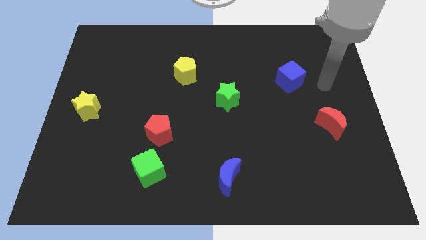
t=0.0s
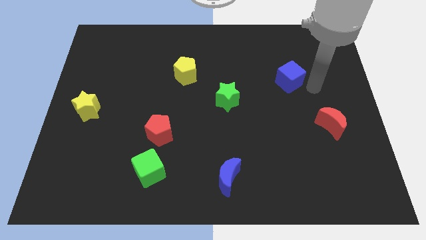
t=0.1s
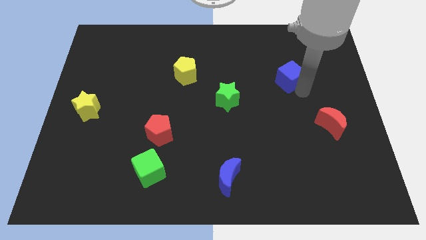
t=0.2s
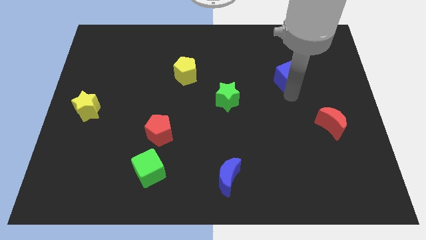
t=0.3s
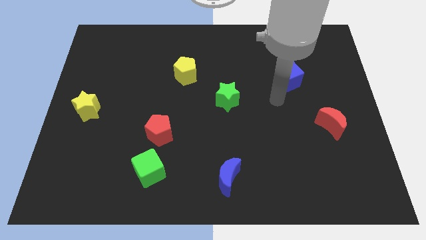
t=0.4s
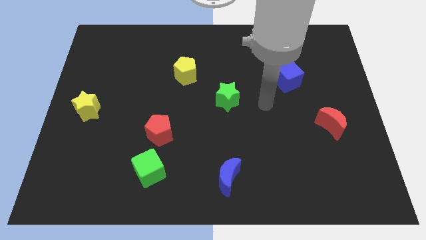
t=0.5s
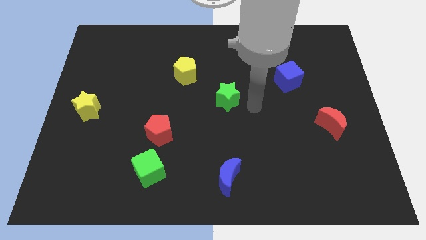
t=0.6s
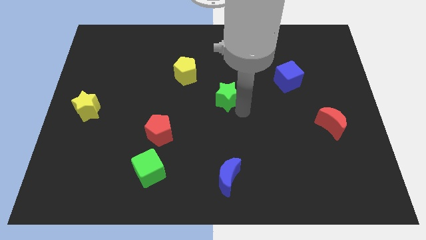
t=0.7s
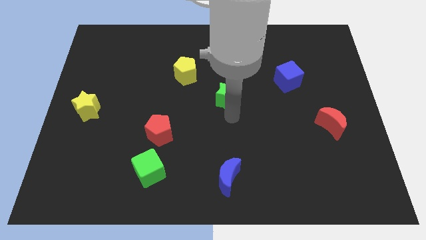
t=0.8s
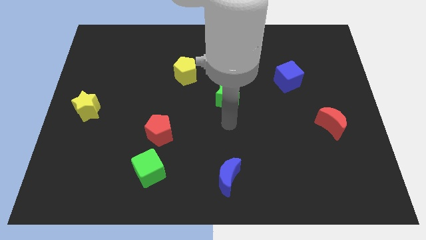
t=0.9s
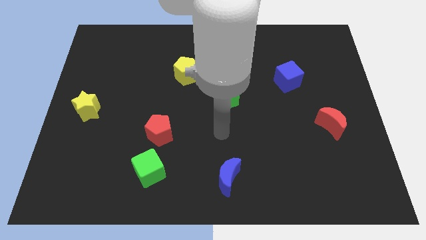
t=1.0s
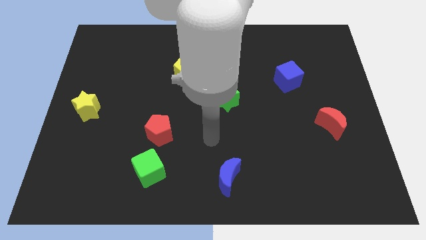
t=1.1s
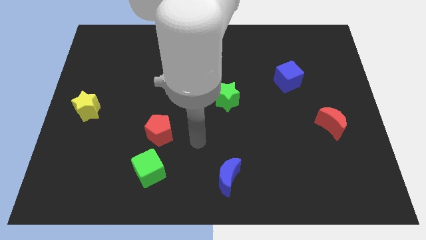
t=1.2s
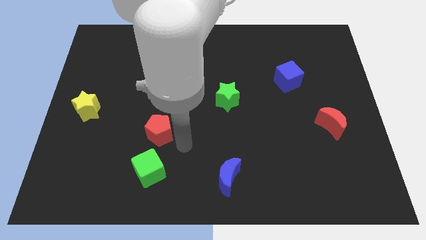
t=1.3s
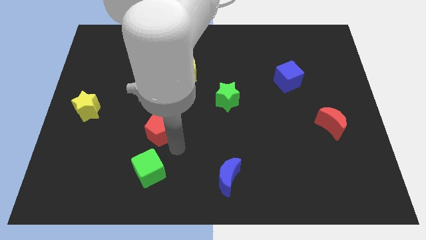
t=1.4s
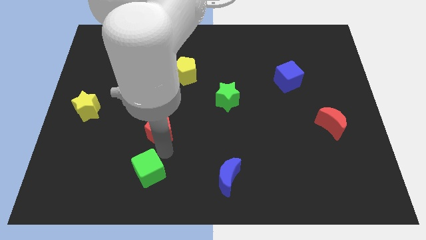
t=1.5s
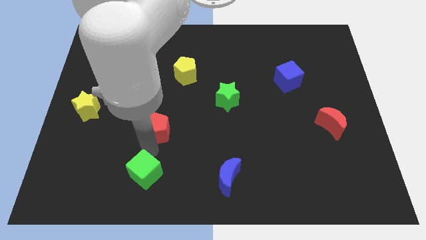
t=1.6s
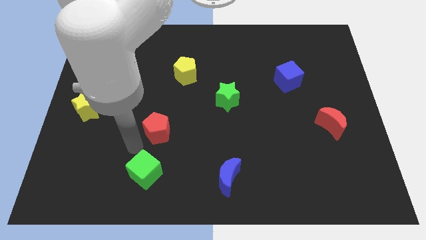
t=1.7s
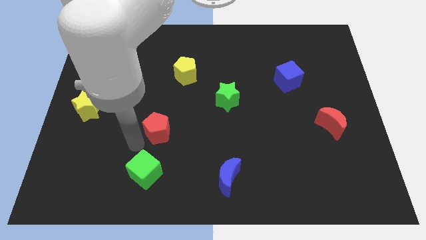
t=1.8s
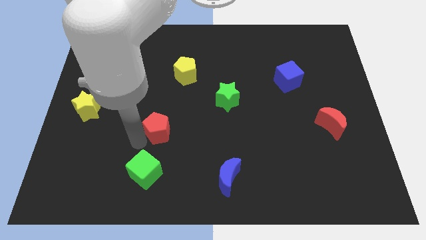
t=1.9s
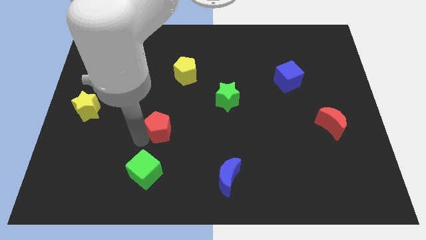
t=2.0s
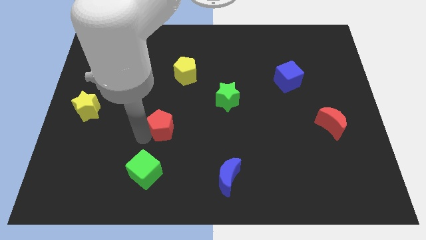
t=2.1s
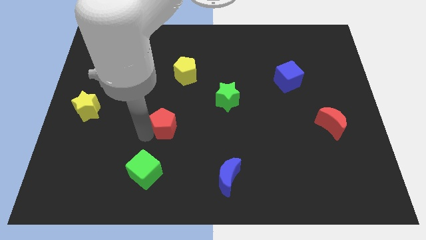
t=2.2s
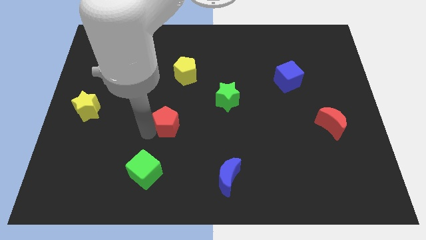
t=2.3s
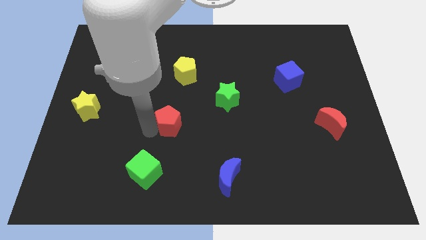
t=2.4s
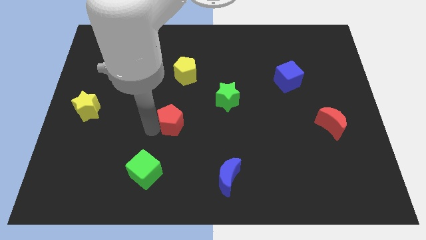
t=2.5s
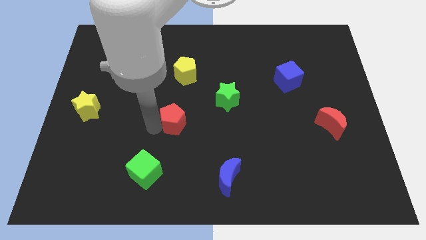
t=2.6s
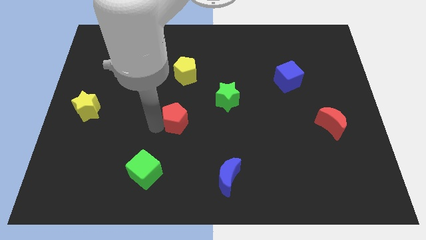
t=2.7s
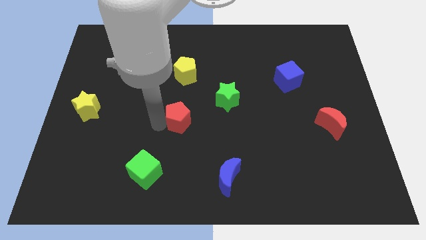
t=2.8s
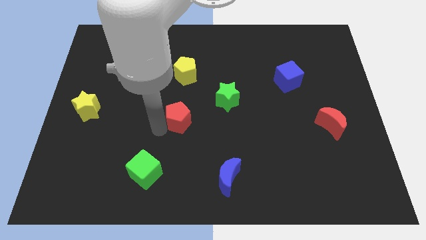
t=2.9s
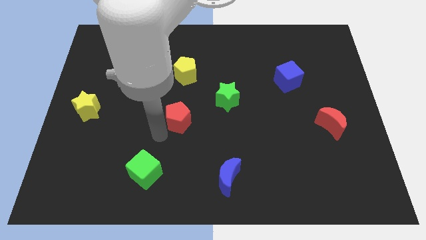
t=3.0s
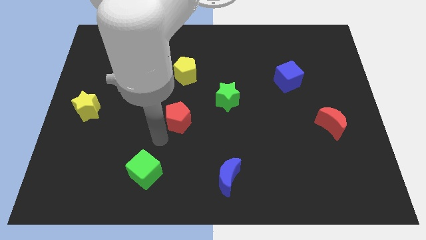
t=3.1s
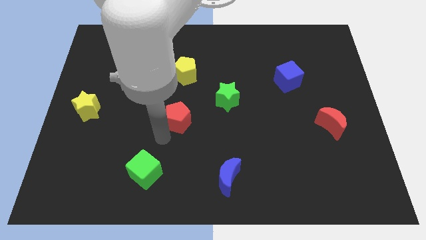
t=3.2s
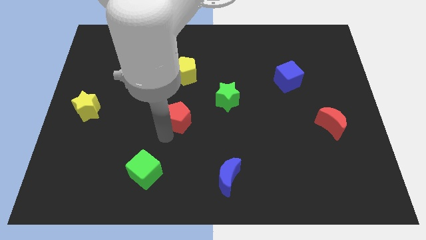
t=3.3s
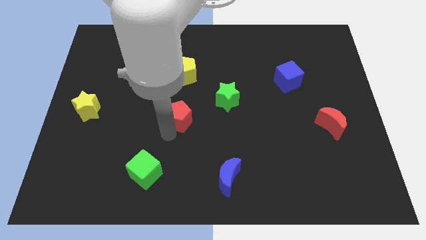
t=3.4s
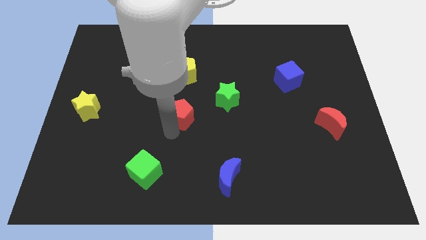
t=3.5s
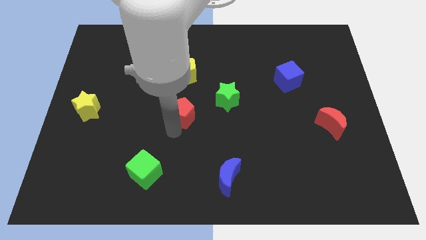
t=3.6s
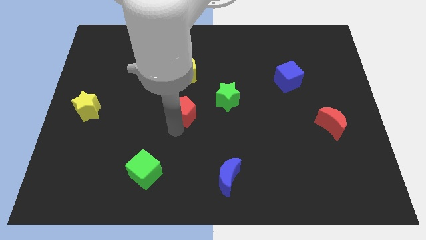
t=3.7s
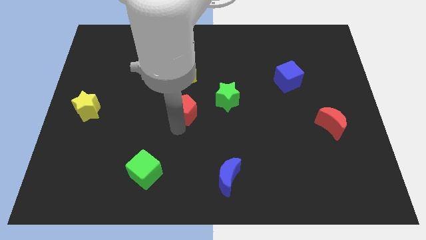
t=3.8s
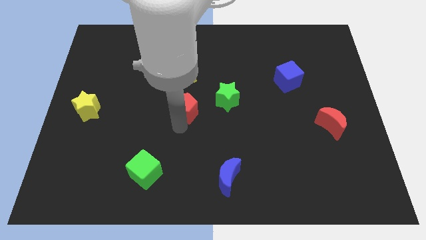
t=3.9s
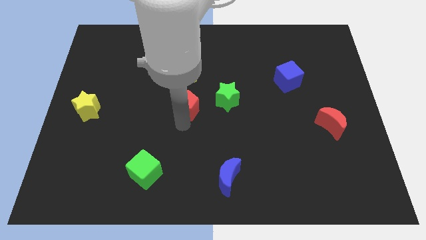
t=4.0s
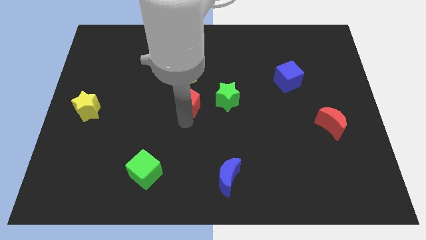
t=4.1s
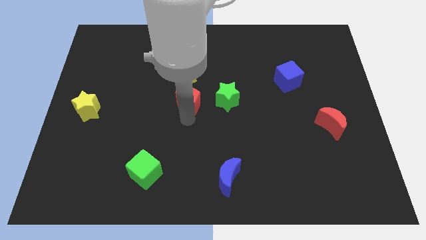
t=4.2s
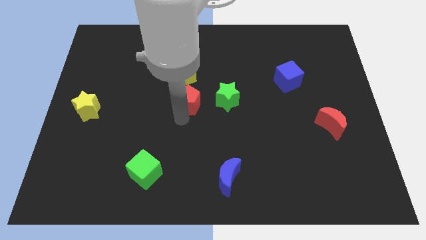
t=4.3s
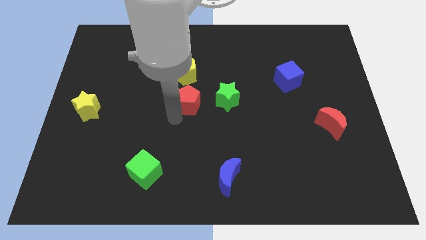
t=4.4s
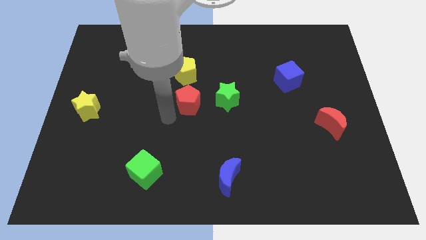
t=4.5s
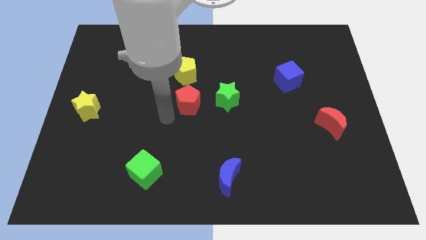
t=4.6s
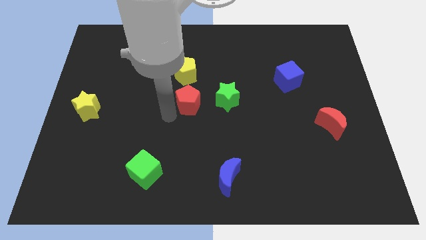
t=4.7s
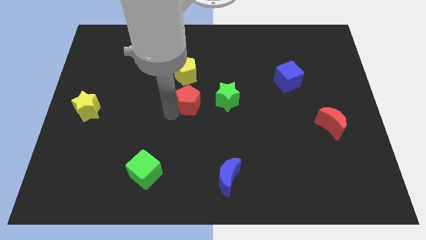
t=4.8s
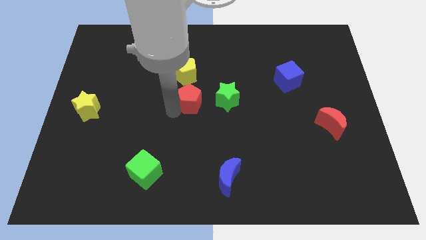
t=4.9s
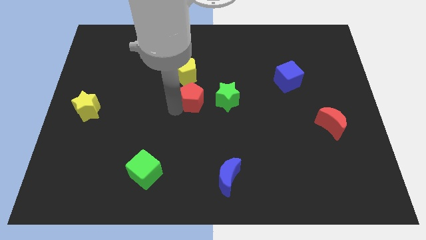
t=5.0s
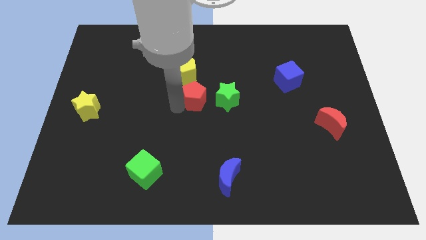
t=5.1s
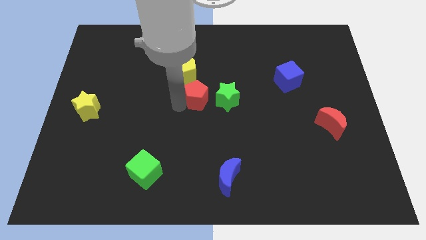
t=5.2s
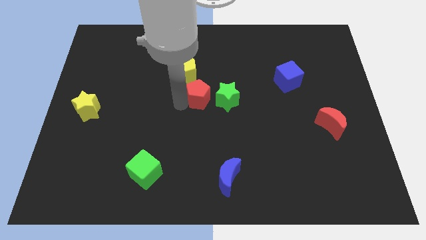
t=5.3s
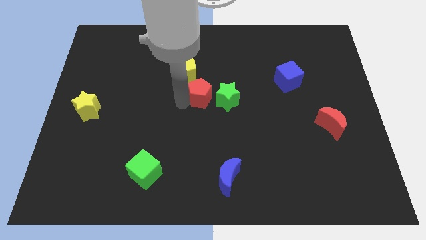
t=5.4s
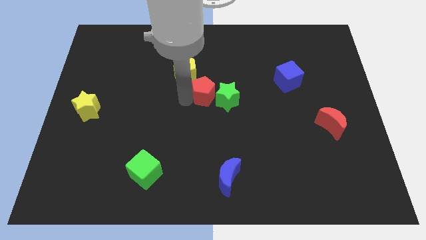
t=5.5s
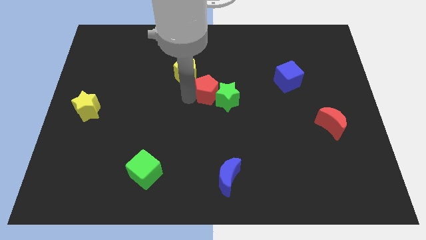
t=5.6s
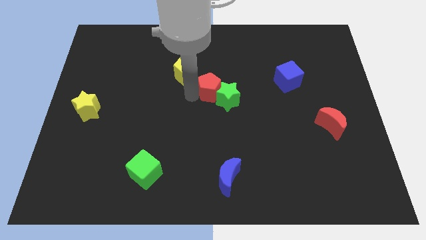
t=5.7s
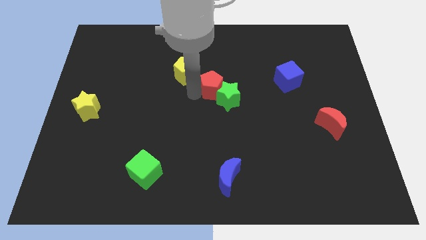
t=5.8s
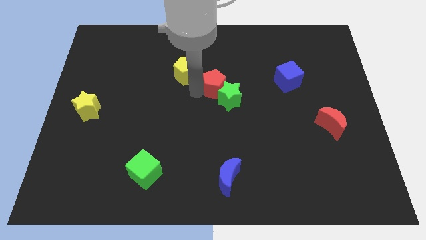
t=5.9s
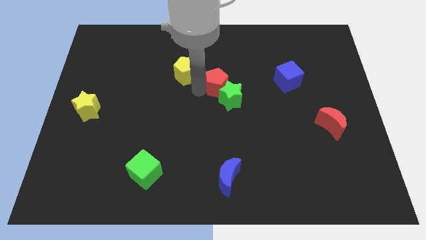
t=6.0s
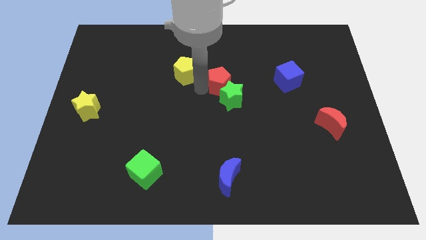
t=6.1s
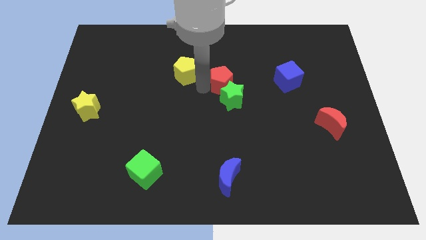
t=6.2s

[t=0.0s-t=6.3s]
move the red pentagon up and to the right diagonally

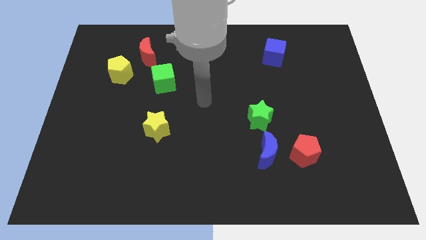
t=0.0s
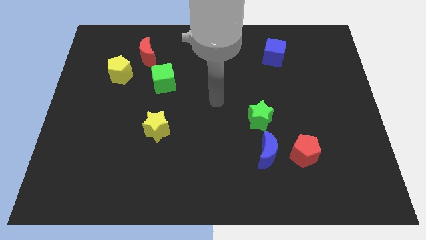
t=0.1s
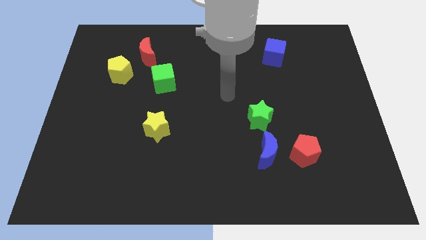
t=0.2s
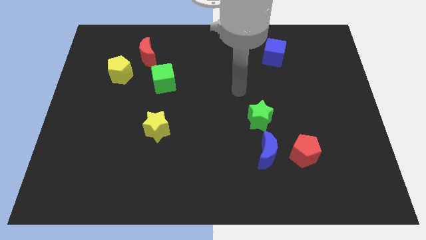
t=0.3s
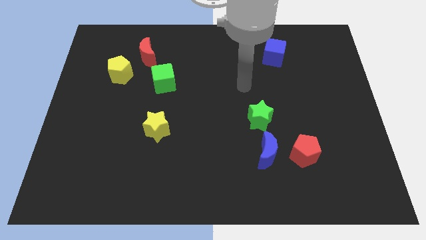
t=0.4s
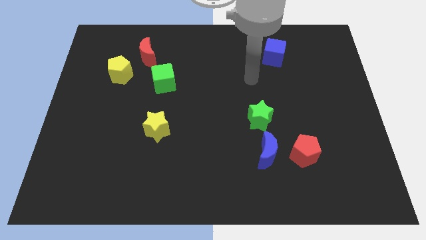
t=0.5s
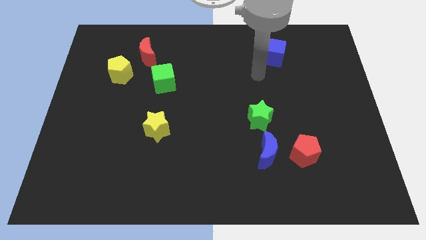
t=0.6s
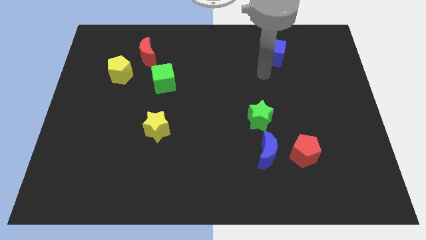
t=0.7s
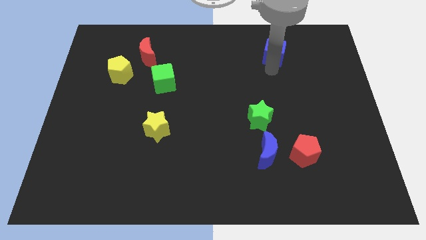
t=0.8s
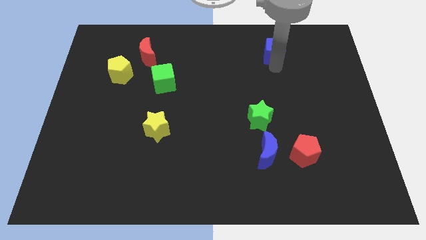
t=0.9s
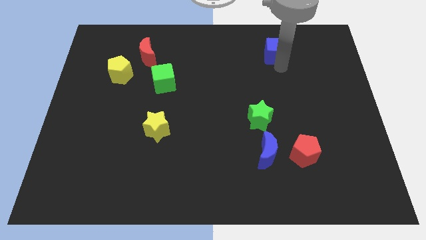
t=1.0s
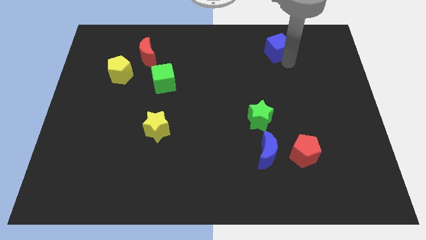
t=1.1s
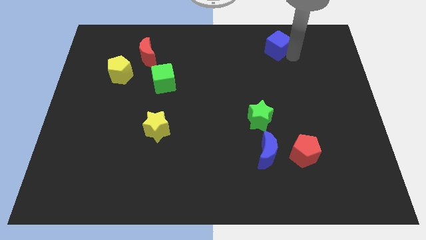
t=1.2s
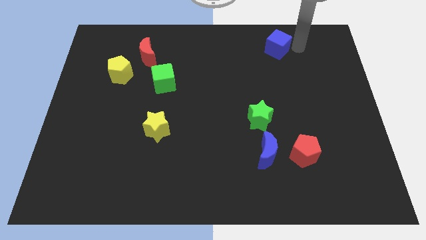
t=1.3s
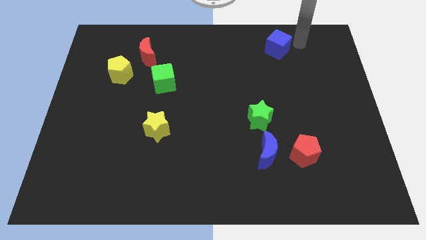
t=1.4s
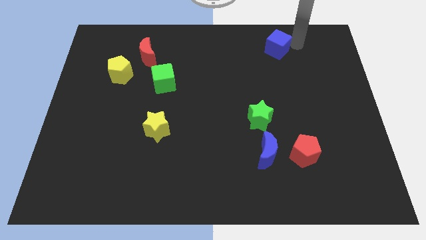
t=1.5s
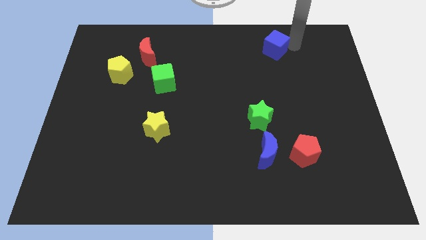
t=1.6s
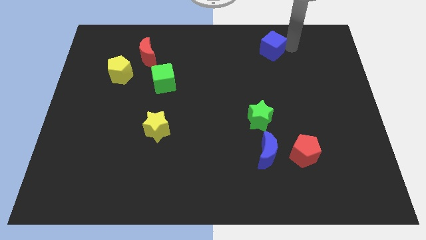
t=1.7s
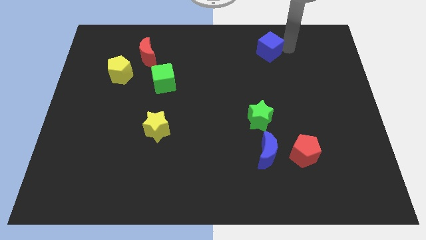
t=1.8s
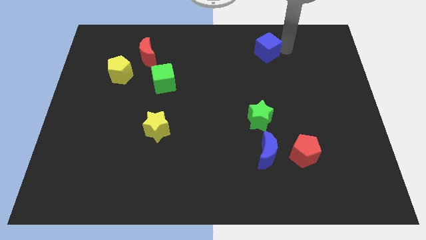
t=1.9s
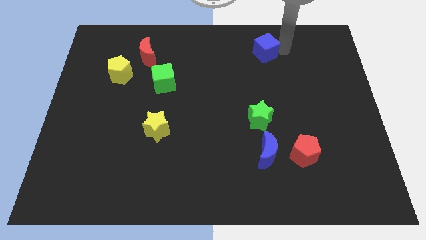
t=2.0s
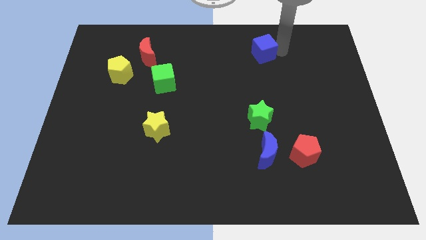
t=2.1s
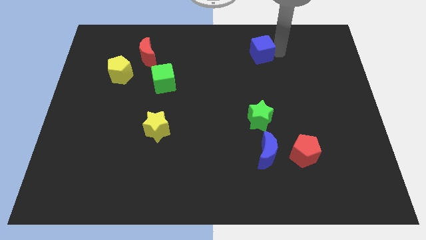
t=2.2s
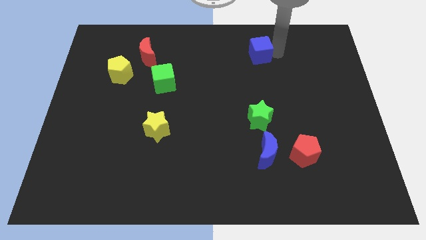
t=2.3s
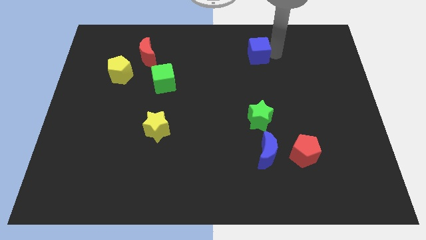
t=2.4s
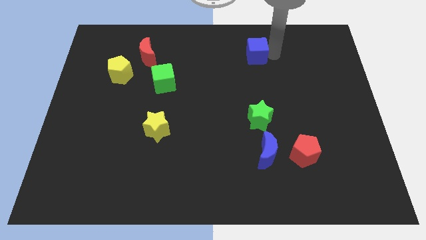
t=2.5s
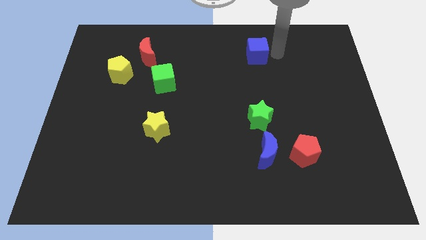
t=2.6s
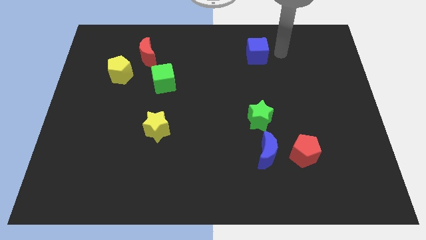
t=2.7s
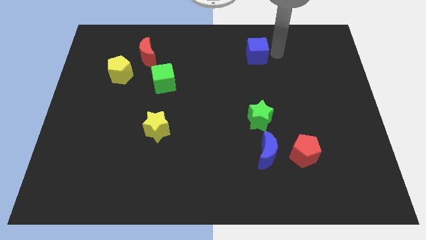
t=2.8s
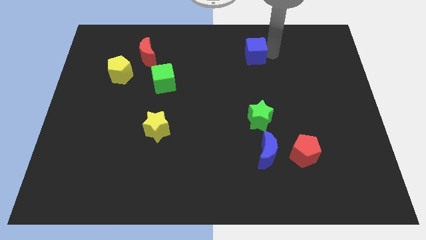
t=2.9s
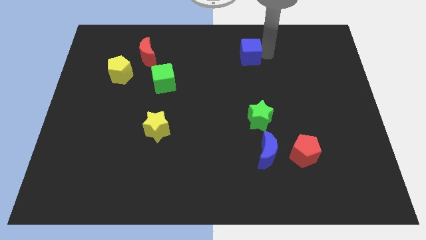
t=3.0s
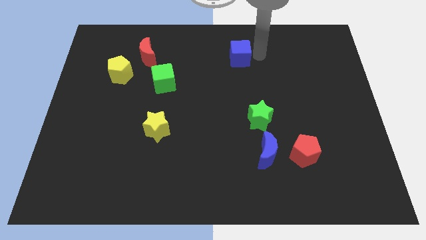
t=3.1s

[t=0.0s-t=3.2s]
slightly push the blue cube to the left
